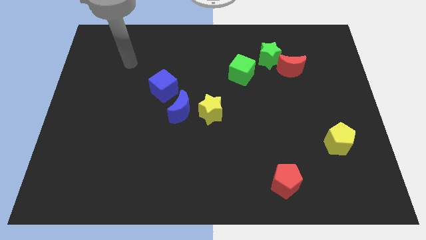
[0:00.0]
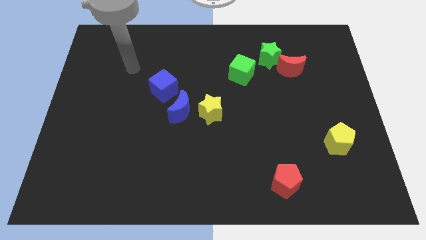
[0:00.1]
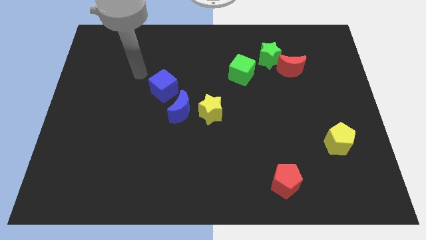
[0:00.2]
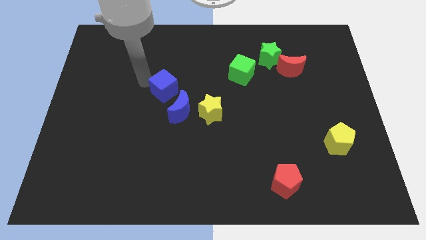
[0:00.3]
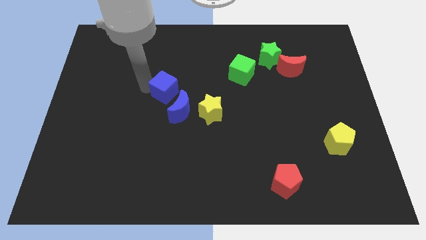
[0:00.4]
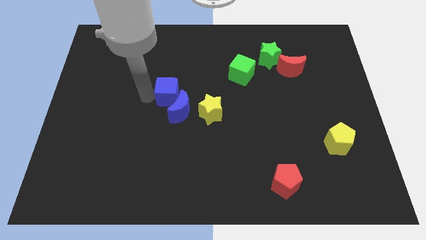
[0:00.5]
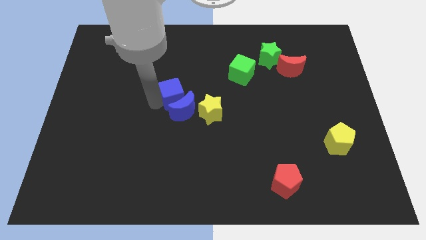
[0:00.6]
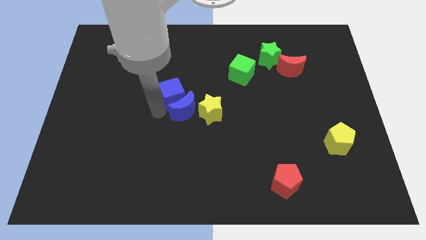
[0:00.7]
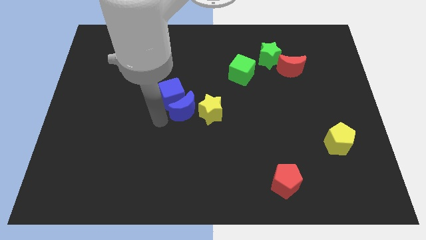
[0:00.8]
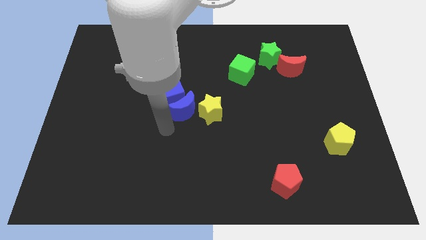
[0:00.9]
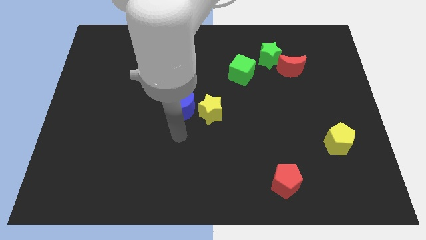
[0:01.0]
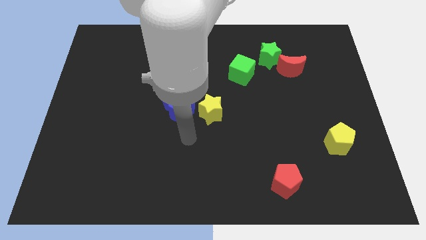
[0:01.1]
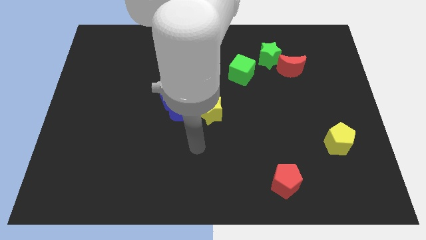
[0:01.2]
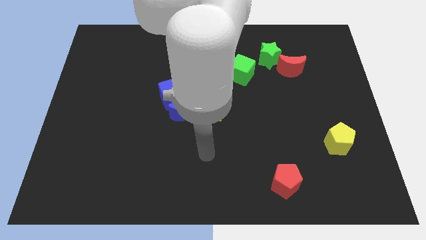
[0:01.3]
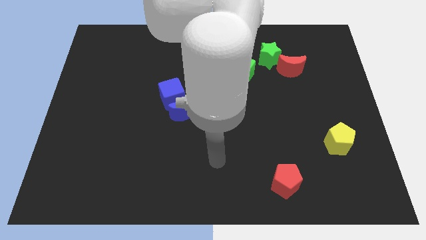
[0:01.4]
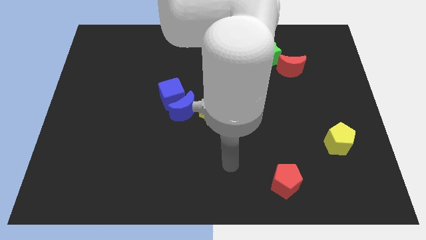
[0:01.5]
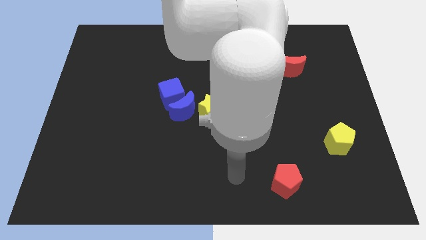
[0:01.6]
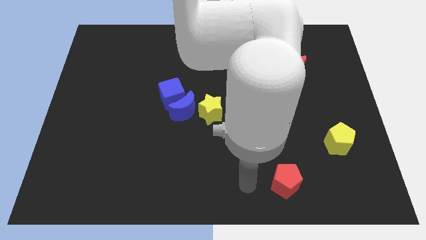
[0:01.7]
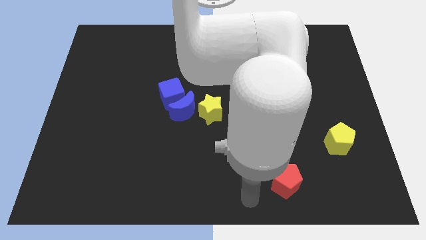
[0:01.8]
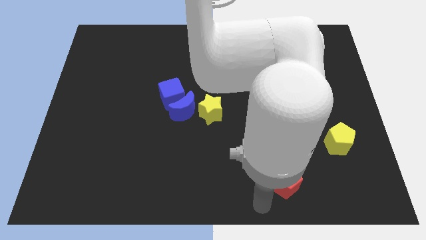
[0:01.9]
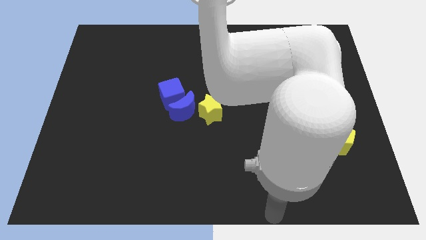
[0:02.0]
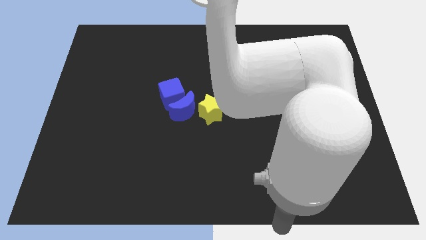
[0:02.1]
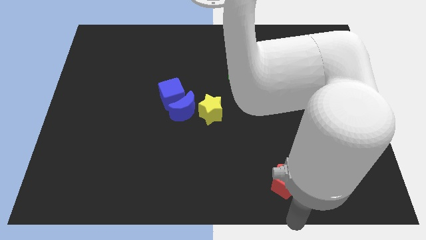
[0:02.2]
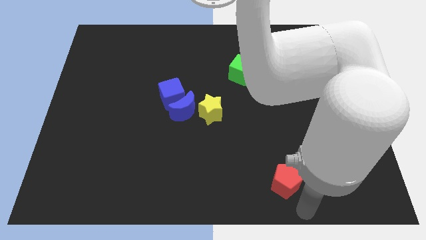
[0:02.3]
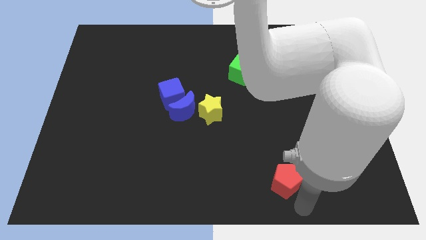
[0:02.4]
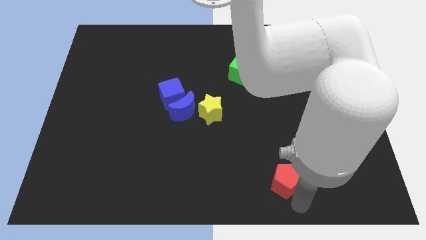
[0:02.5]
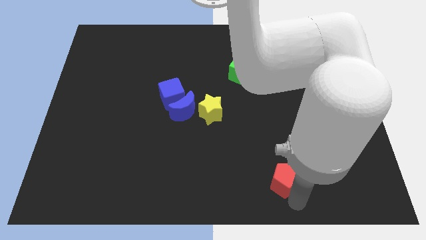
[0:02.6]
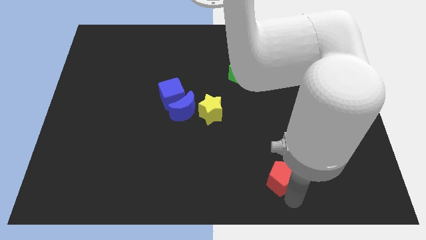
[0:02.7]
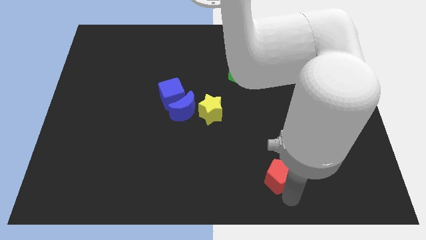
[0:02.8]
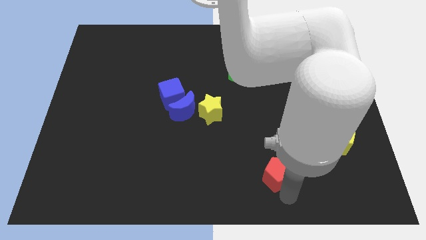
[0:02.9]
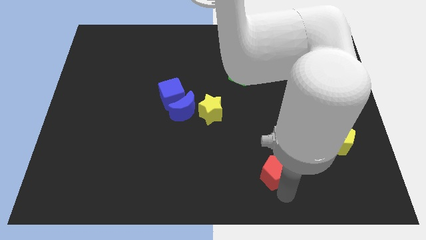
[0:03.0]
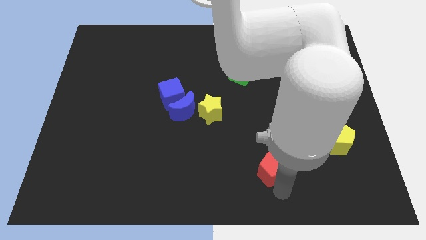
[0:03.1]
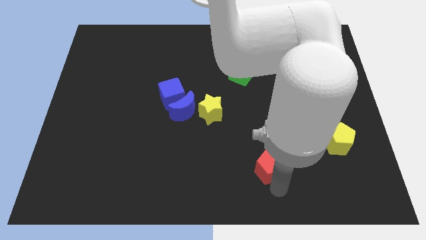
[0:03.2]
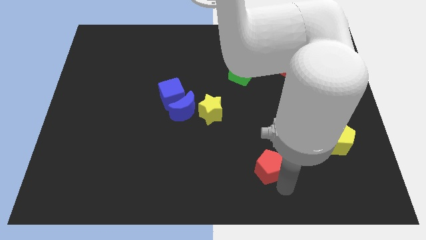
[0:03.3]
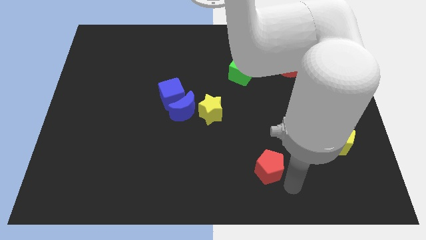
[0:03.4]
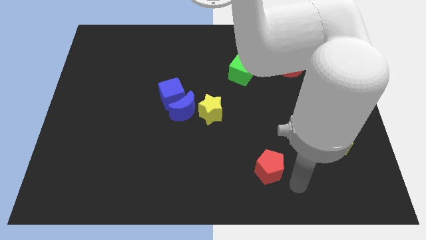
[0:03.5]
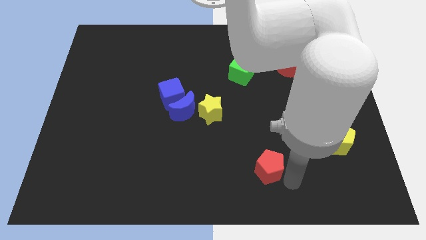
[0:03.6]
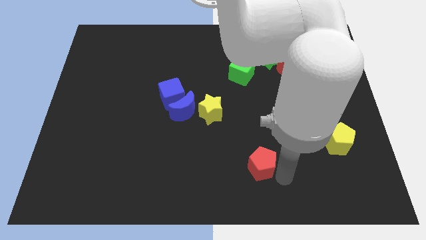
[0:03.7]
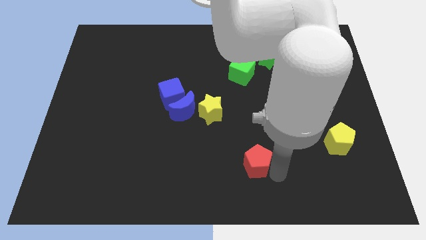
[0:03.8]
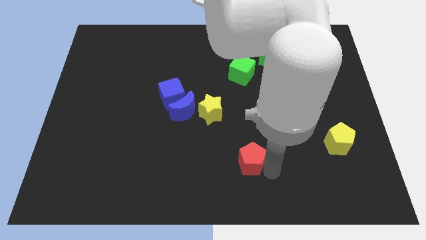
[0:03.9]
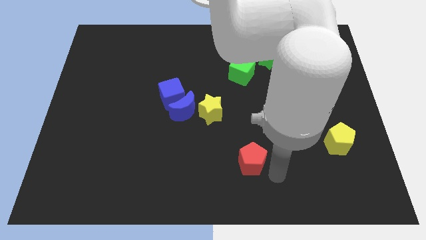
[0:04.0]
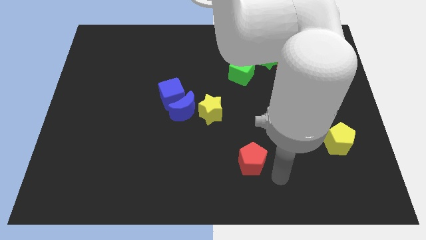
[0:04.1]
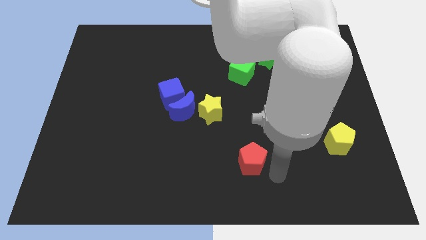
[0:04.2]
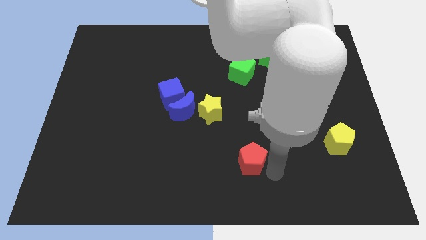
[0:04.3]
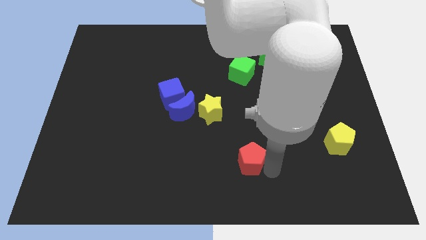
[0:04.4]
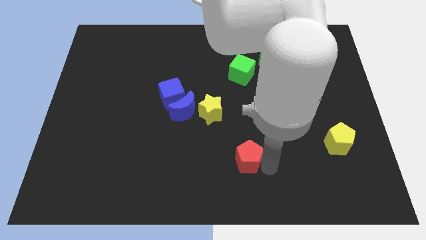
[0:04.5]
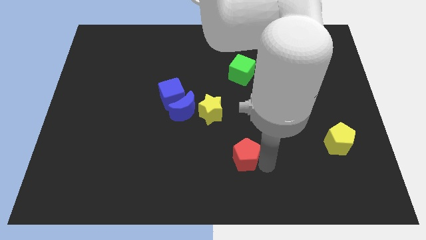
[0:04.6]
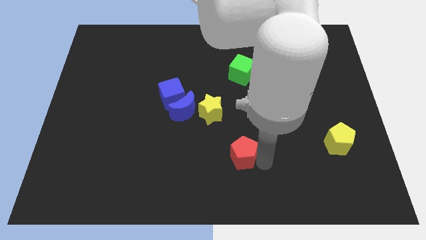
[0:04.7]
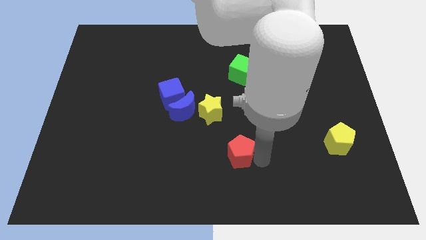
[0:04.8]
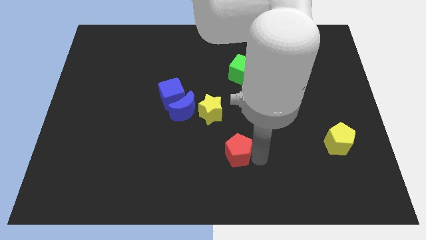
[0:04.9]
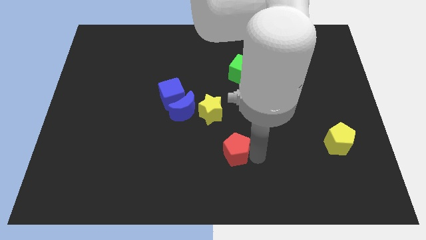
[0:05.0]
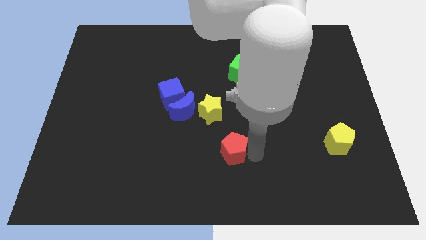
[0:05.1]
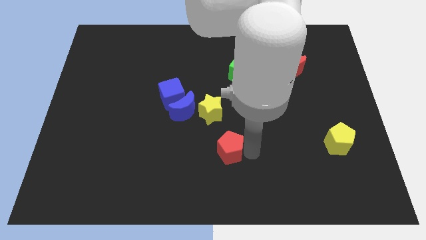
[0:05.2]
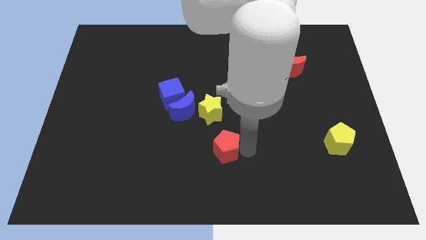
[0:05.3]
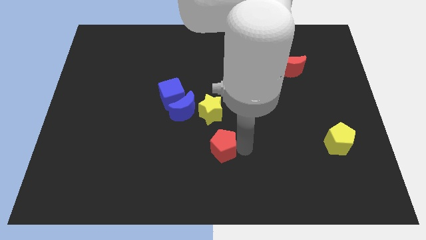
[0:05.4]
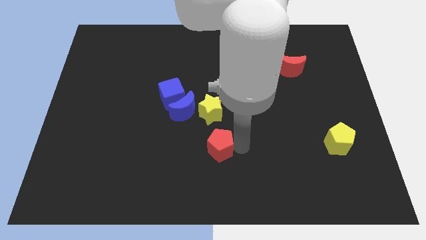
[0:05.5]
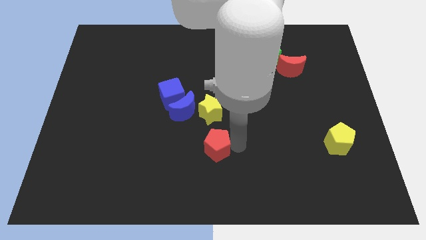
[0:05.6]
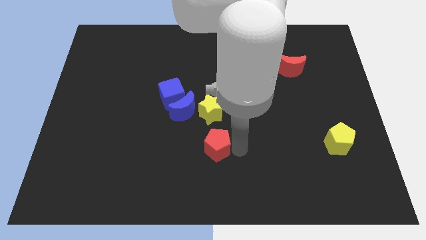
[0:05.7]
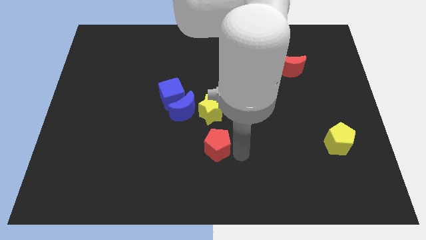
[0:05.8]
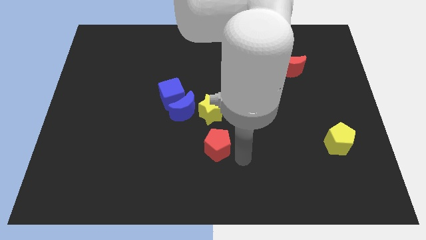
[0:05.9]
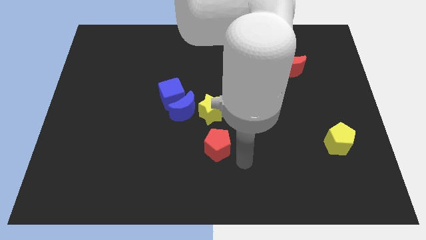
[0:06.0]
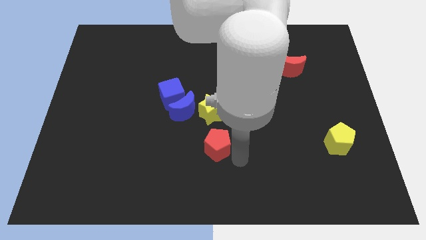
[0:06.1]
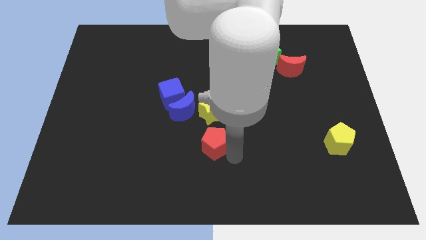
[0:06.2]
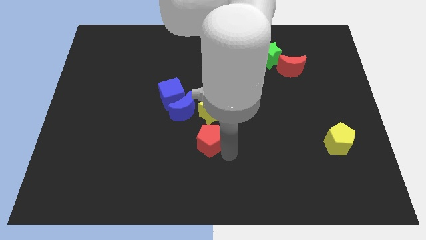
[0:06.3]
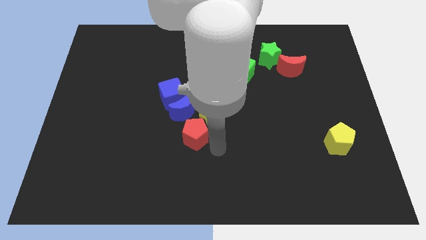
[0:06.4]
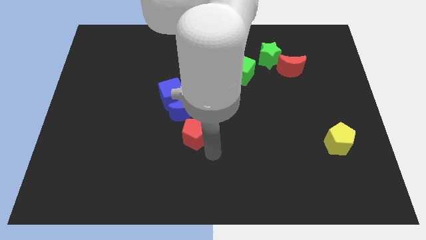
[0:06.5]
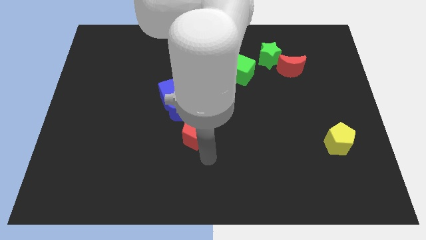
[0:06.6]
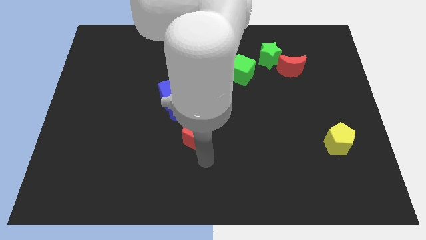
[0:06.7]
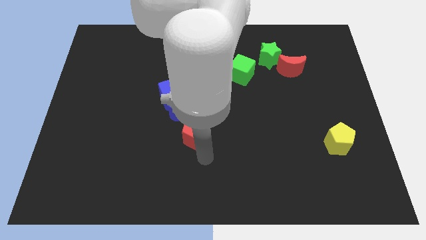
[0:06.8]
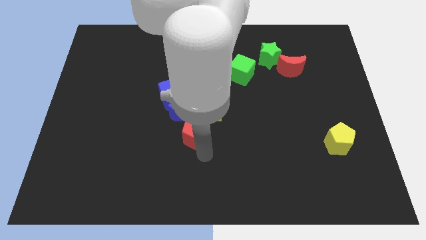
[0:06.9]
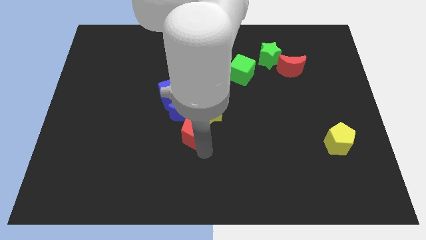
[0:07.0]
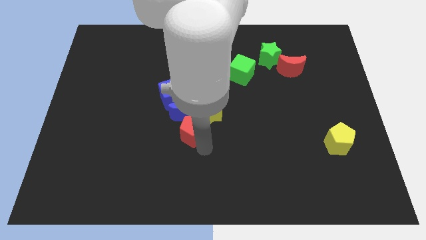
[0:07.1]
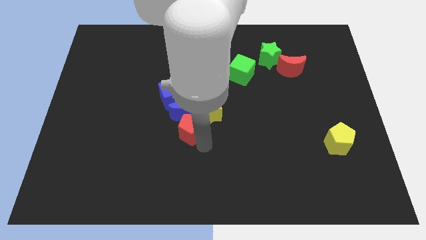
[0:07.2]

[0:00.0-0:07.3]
move the red pentagon towards the blue moon

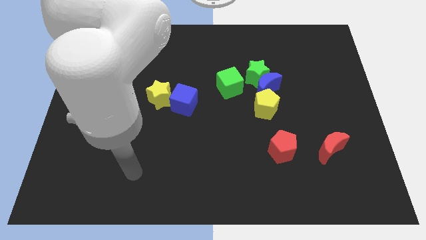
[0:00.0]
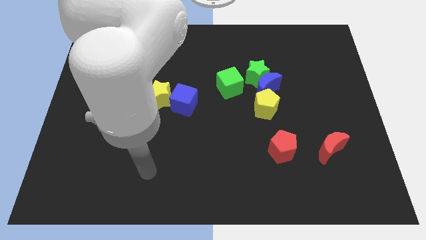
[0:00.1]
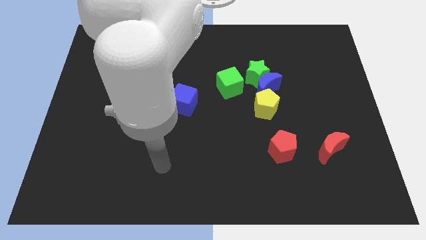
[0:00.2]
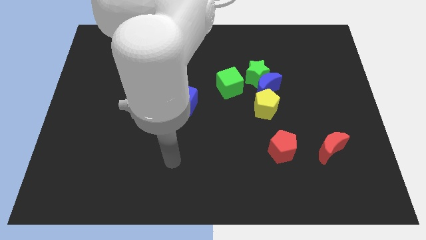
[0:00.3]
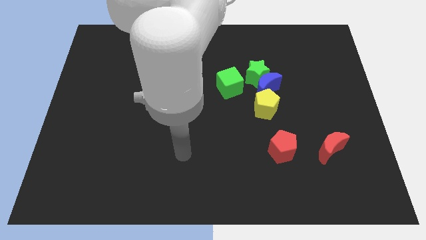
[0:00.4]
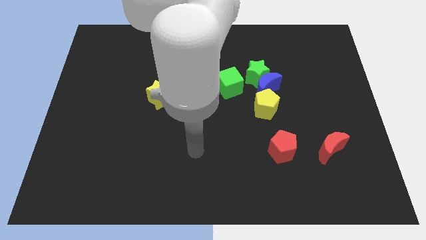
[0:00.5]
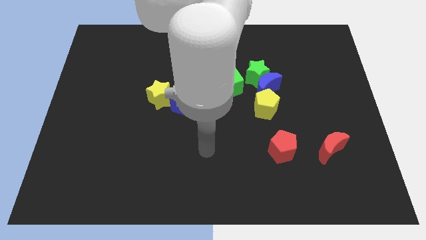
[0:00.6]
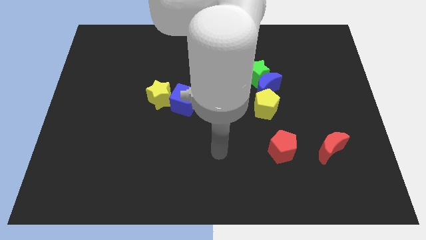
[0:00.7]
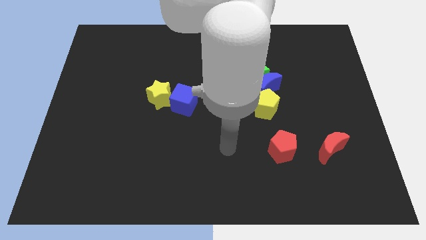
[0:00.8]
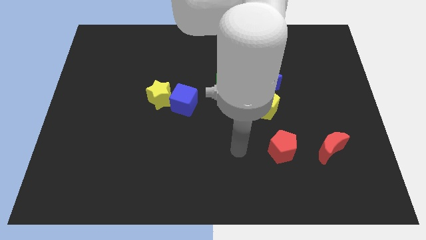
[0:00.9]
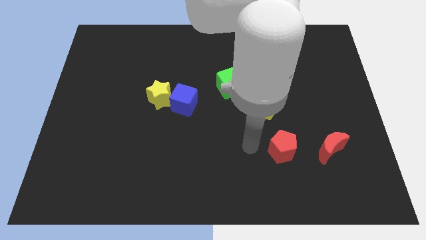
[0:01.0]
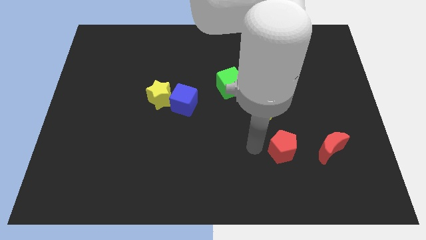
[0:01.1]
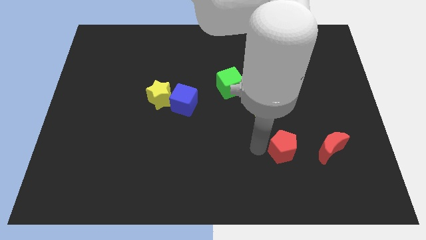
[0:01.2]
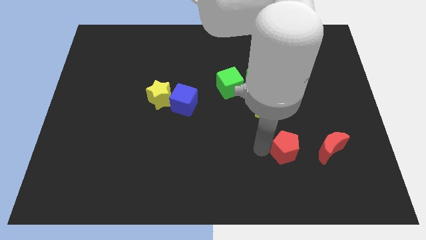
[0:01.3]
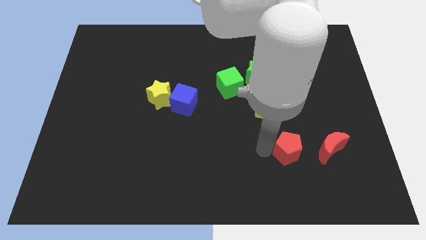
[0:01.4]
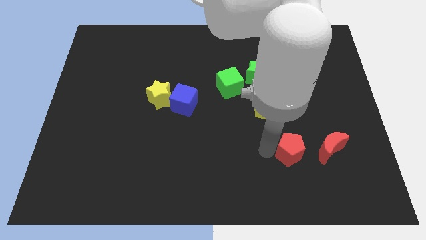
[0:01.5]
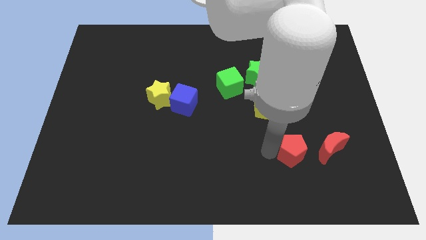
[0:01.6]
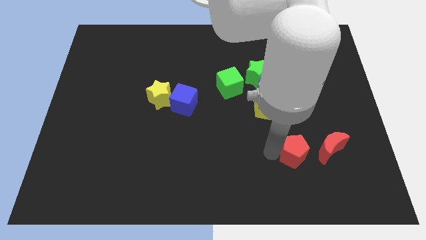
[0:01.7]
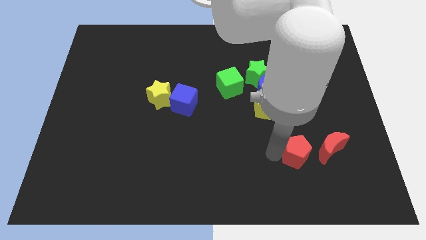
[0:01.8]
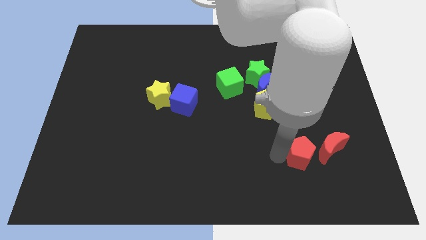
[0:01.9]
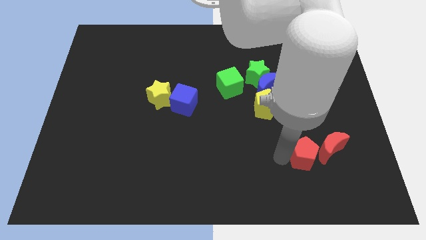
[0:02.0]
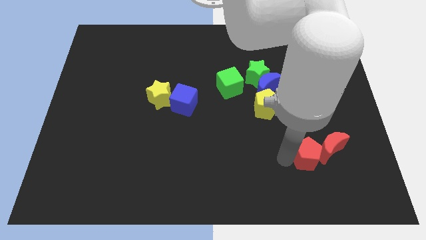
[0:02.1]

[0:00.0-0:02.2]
push the red pentagon towards the red moon
